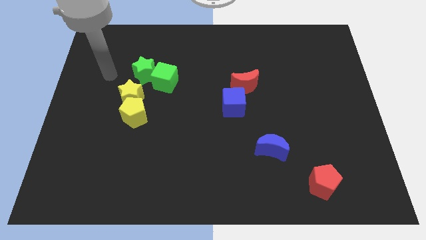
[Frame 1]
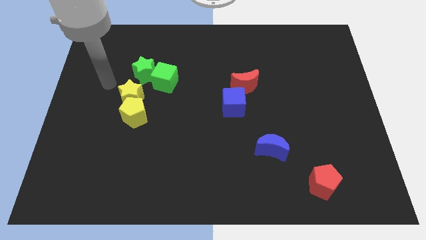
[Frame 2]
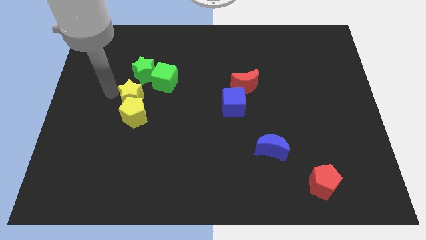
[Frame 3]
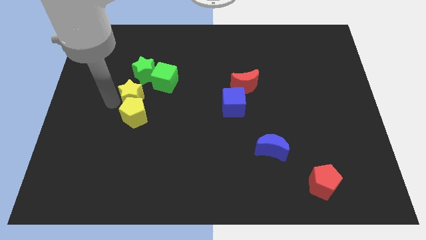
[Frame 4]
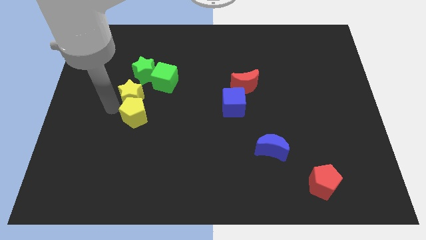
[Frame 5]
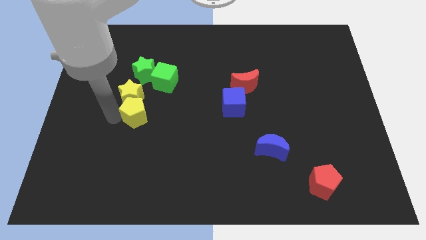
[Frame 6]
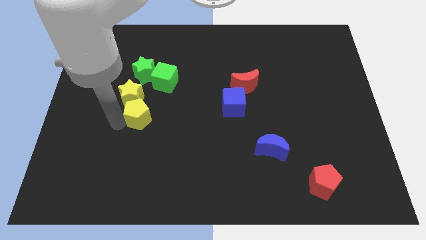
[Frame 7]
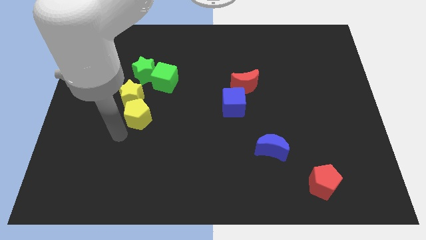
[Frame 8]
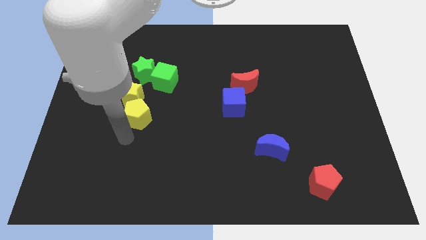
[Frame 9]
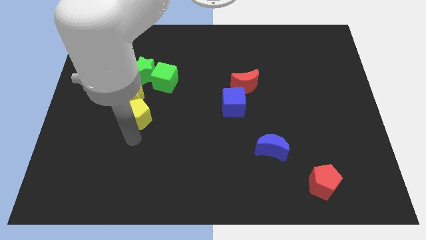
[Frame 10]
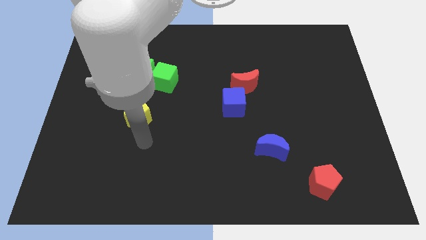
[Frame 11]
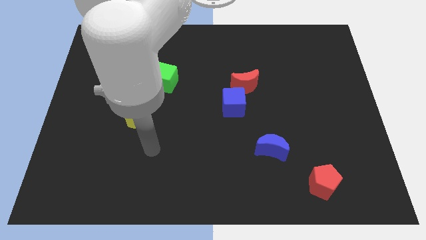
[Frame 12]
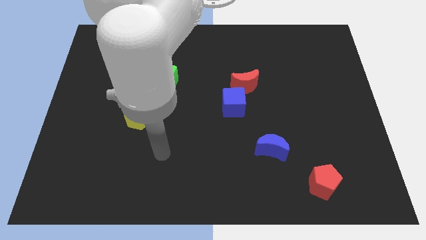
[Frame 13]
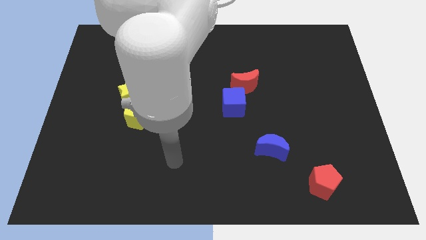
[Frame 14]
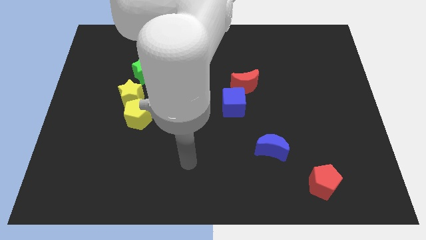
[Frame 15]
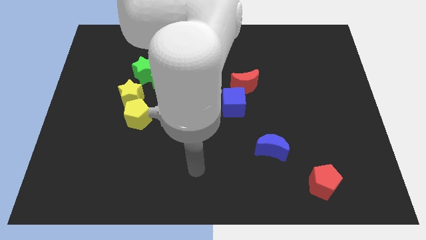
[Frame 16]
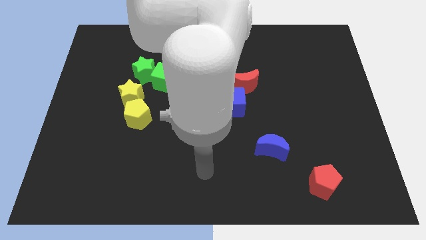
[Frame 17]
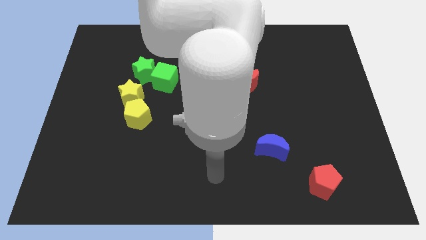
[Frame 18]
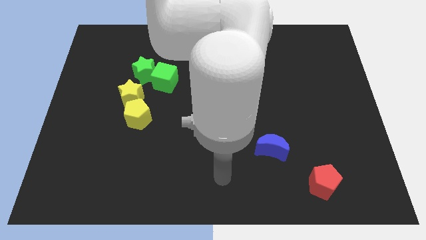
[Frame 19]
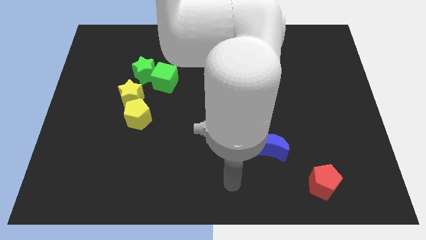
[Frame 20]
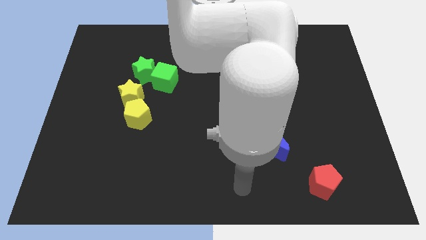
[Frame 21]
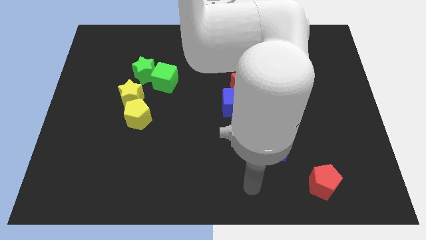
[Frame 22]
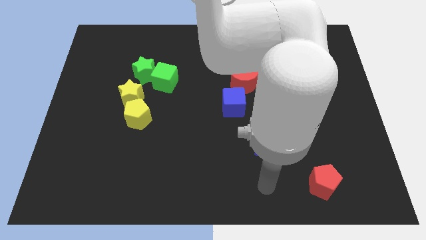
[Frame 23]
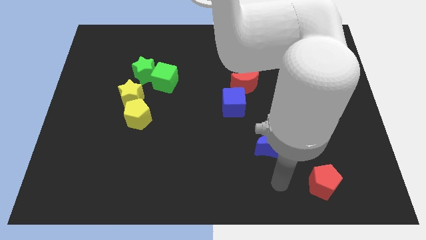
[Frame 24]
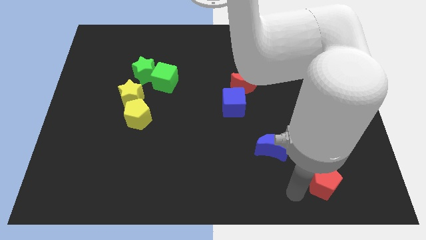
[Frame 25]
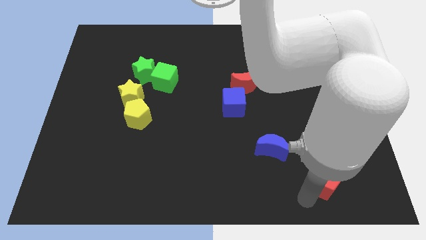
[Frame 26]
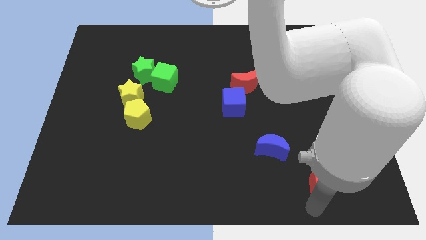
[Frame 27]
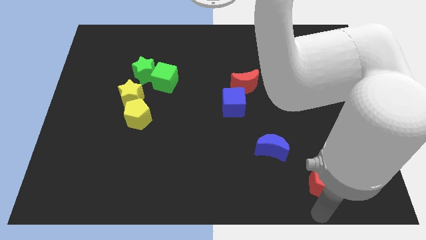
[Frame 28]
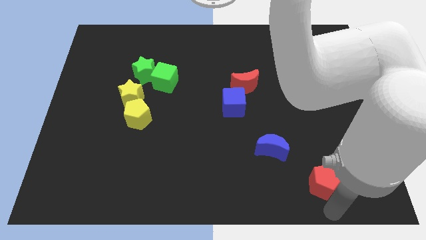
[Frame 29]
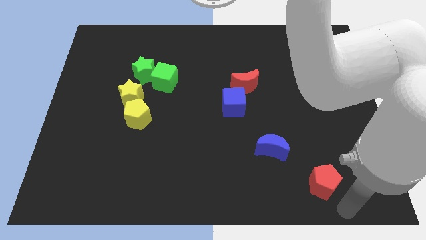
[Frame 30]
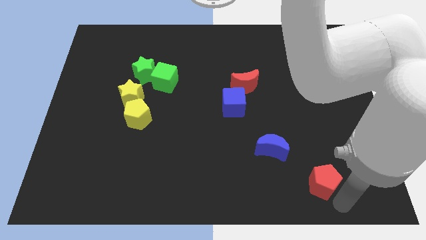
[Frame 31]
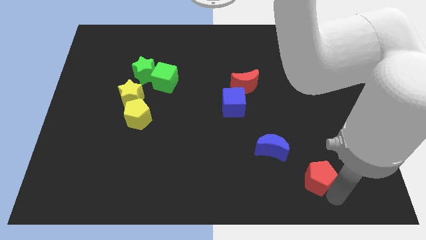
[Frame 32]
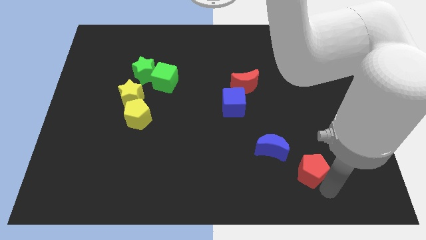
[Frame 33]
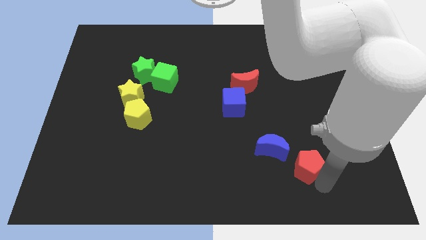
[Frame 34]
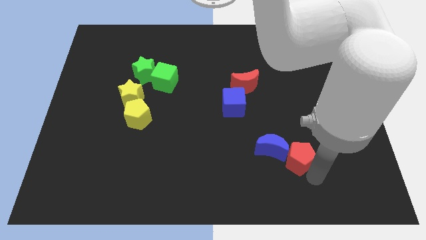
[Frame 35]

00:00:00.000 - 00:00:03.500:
move the red pentagon upwards and left somewhat

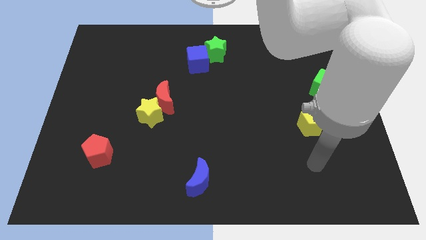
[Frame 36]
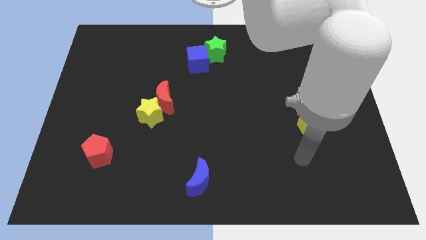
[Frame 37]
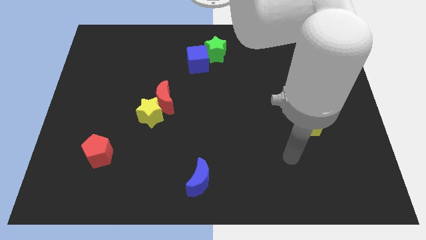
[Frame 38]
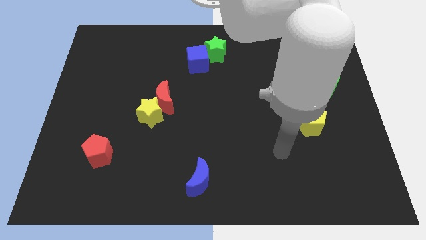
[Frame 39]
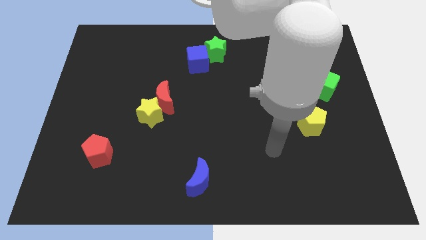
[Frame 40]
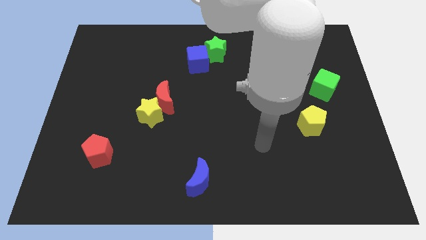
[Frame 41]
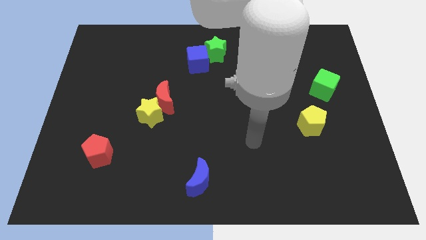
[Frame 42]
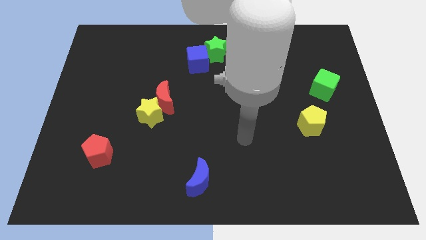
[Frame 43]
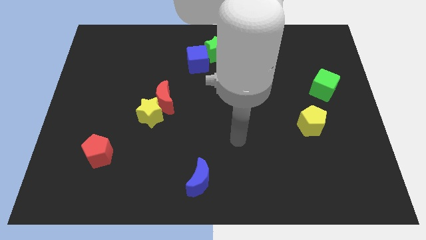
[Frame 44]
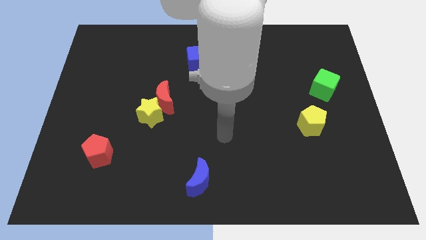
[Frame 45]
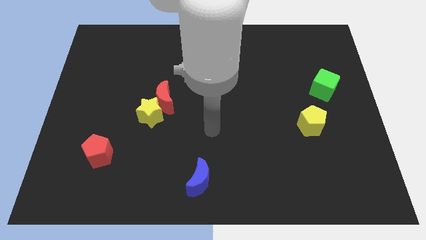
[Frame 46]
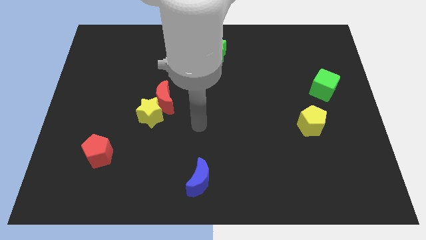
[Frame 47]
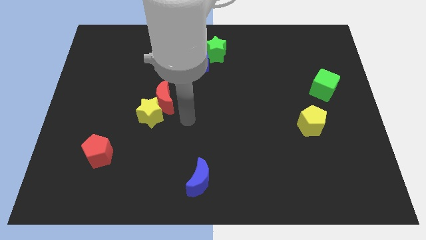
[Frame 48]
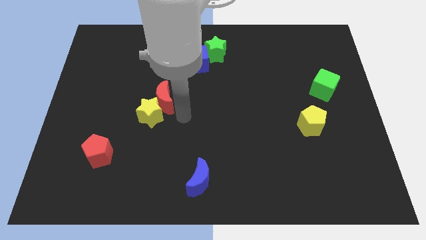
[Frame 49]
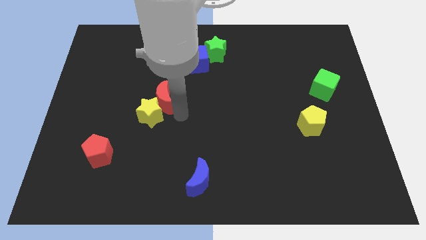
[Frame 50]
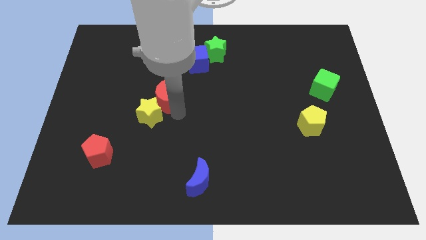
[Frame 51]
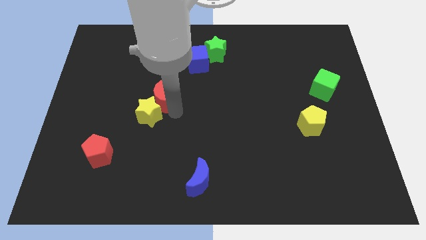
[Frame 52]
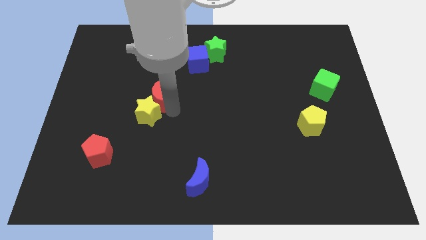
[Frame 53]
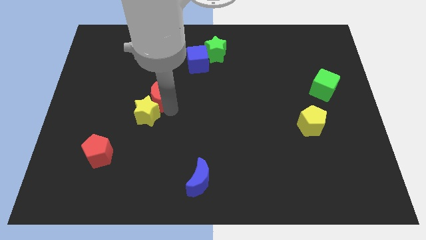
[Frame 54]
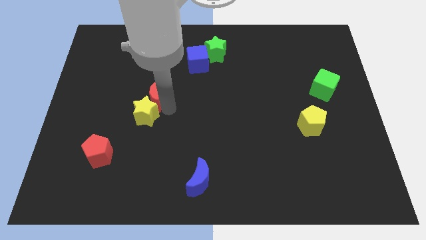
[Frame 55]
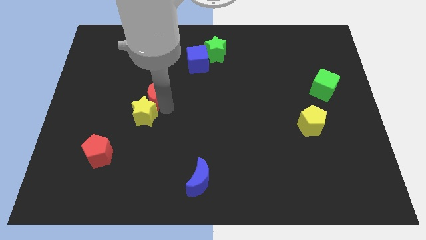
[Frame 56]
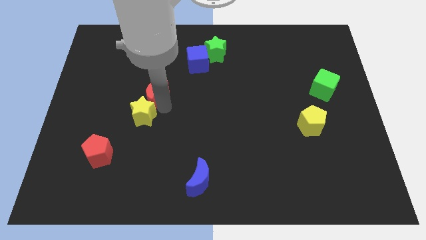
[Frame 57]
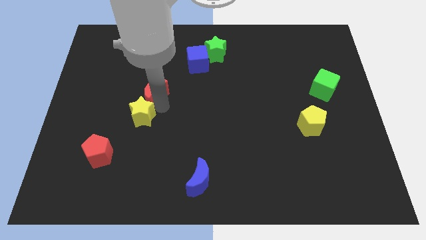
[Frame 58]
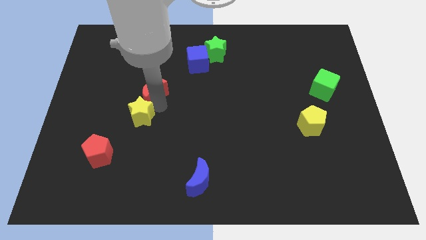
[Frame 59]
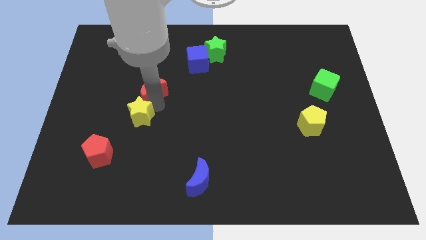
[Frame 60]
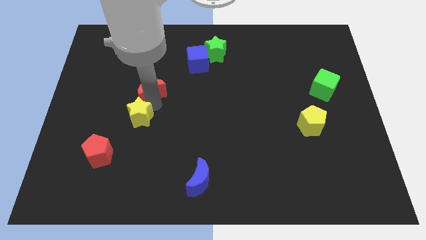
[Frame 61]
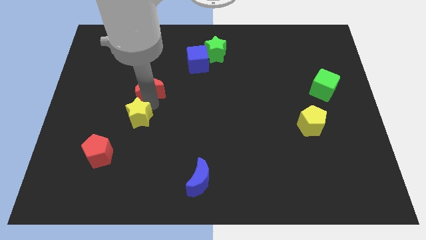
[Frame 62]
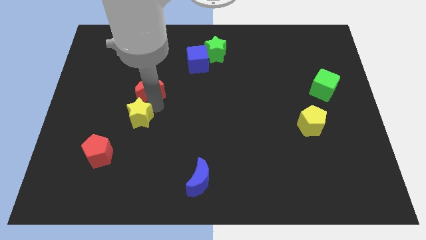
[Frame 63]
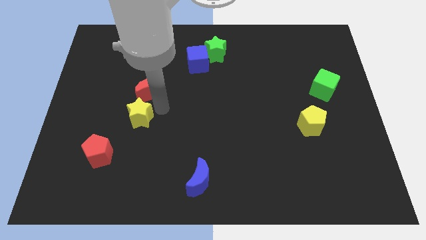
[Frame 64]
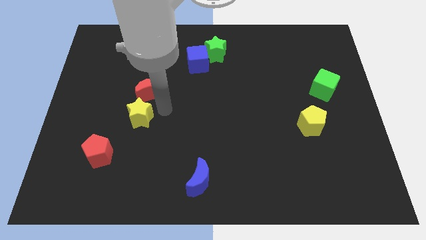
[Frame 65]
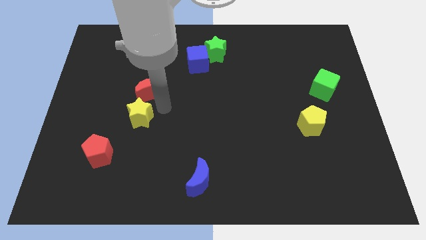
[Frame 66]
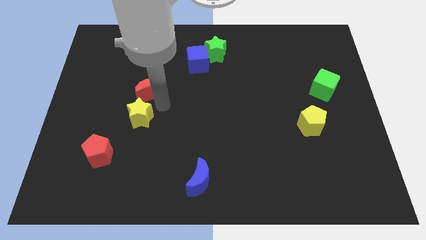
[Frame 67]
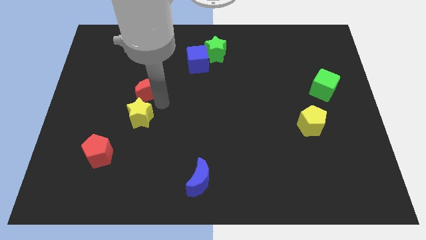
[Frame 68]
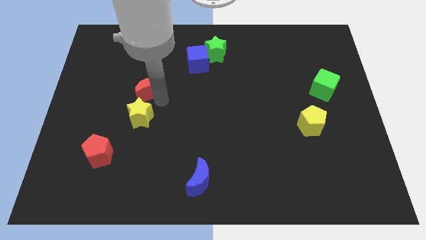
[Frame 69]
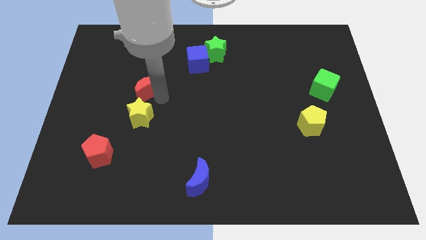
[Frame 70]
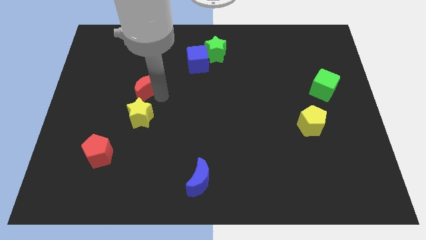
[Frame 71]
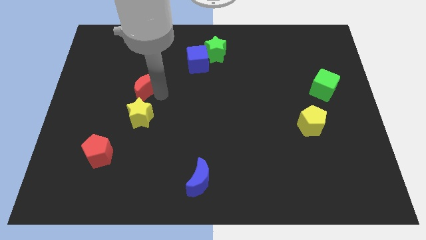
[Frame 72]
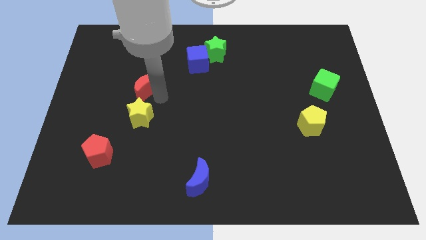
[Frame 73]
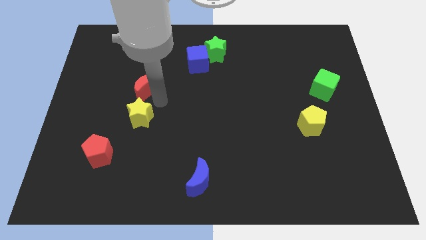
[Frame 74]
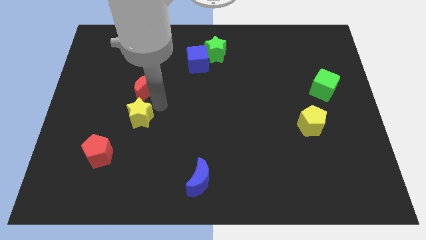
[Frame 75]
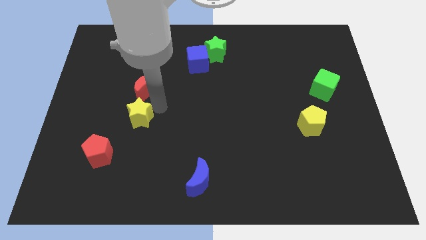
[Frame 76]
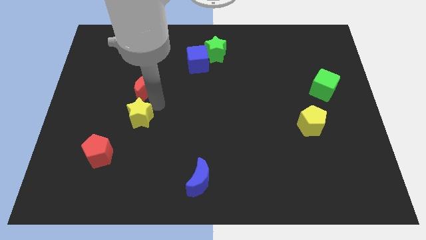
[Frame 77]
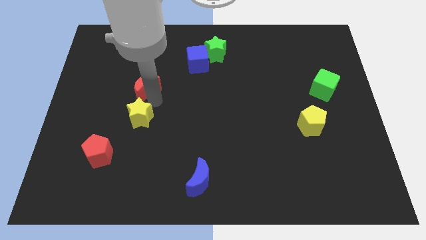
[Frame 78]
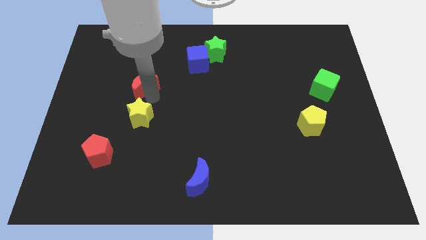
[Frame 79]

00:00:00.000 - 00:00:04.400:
slide the red moon up and to the left diagonally a bit
